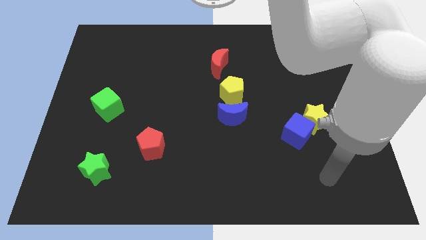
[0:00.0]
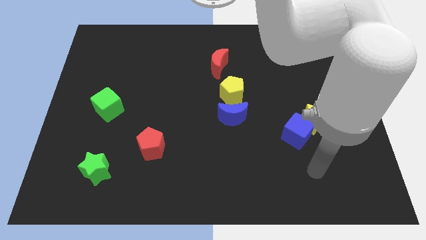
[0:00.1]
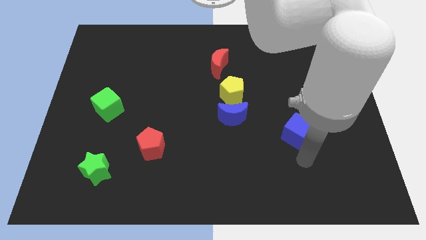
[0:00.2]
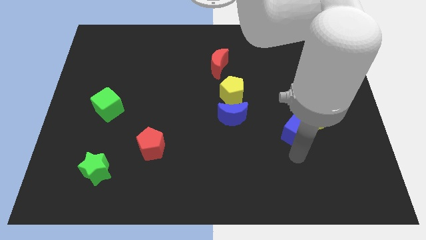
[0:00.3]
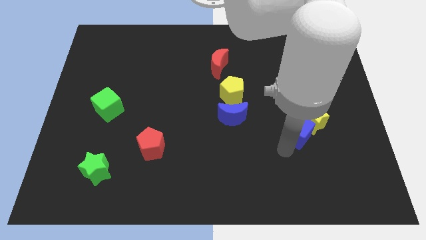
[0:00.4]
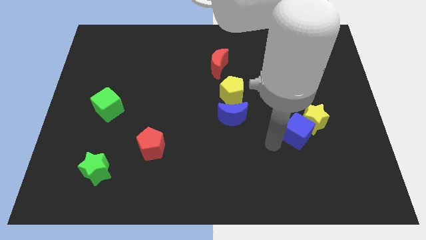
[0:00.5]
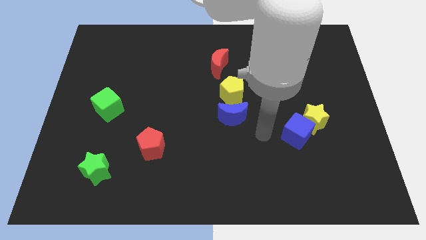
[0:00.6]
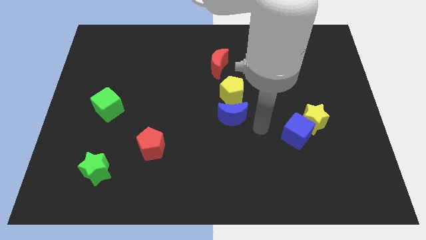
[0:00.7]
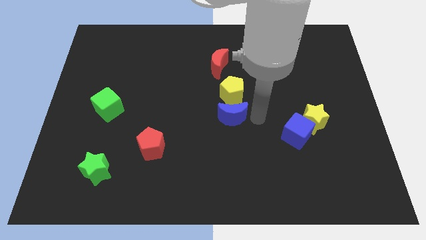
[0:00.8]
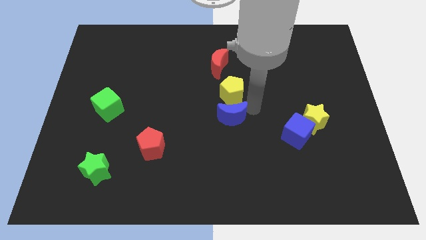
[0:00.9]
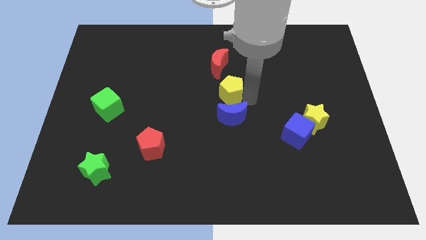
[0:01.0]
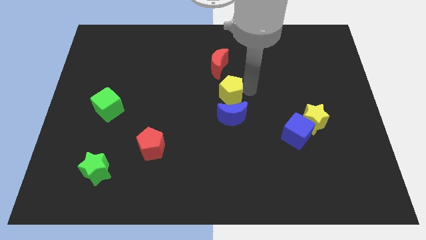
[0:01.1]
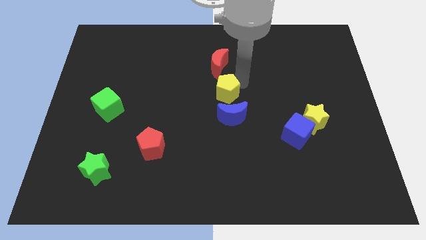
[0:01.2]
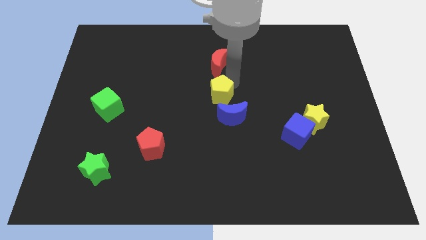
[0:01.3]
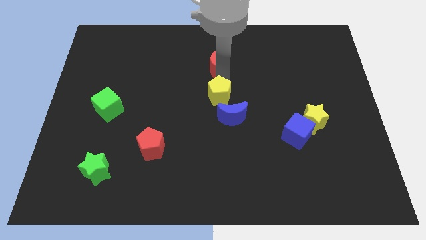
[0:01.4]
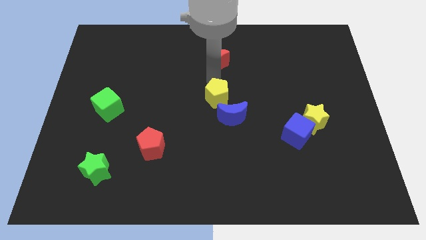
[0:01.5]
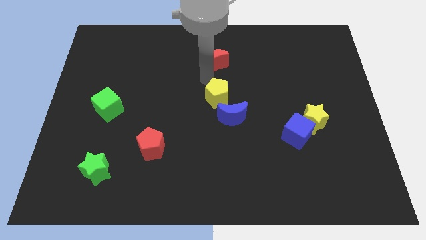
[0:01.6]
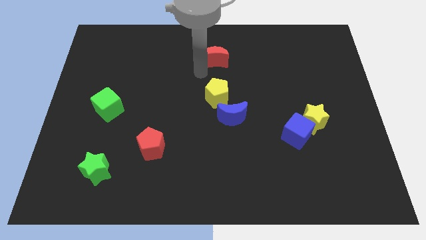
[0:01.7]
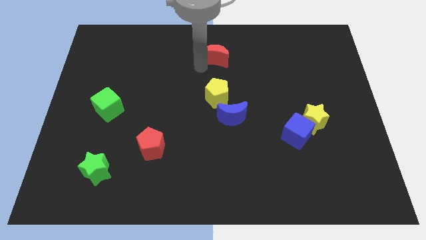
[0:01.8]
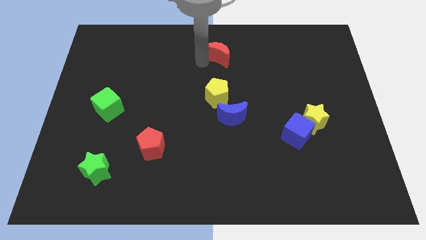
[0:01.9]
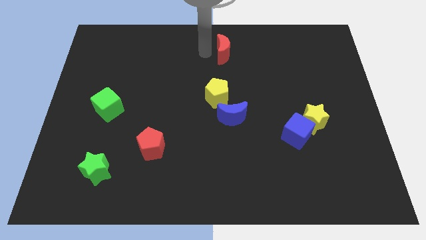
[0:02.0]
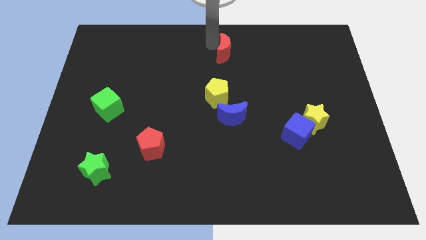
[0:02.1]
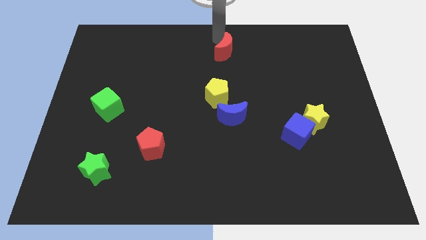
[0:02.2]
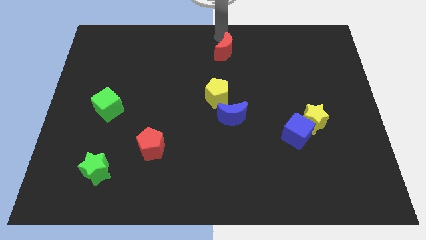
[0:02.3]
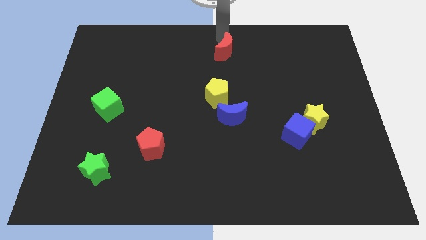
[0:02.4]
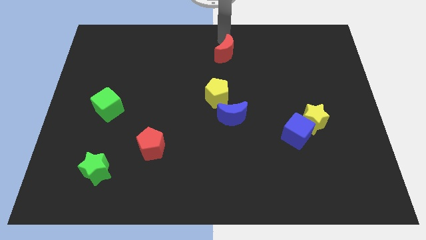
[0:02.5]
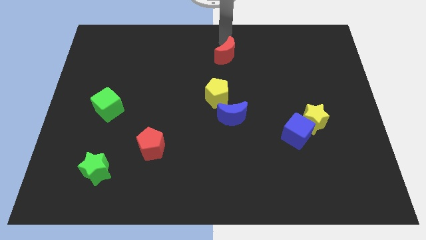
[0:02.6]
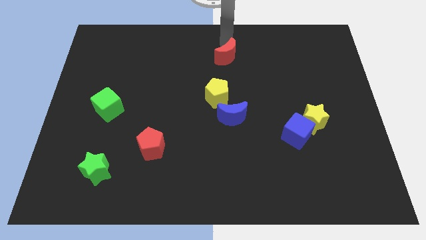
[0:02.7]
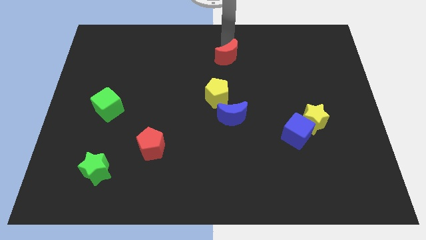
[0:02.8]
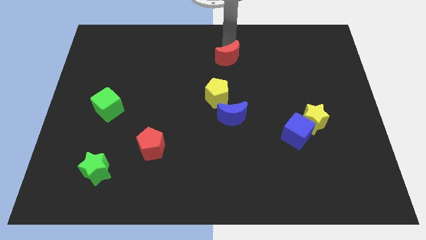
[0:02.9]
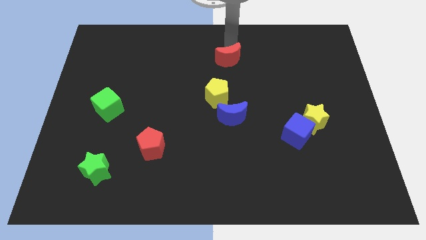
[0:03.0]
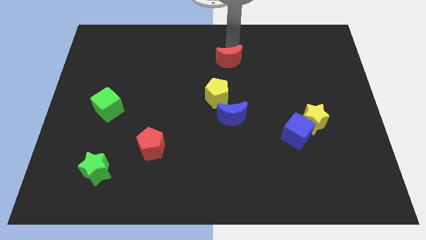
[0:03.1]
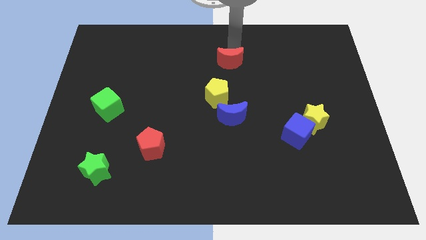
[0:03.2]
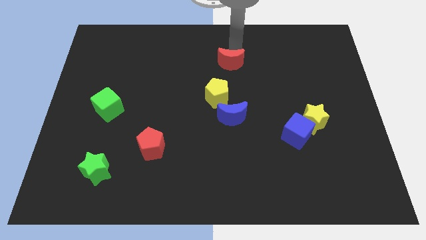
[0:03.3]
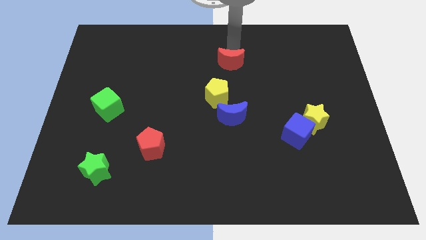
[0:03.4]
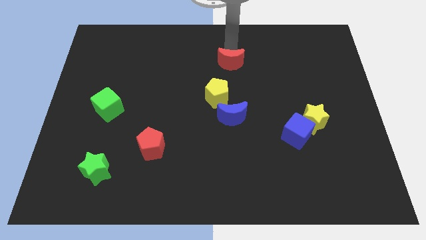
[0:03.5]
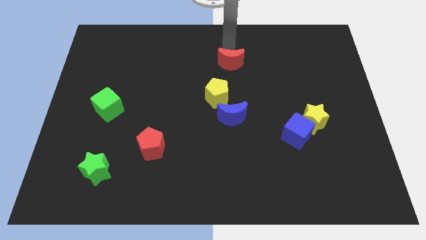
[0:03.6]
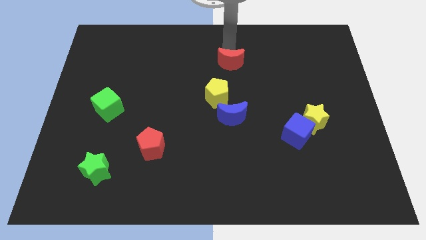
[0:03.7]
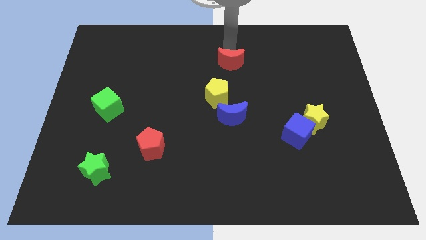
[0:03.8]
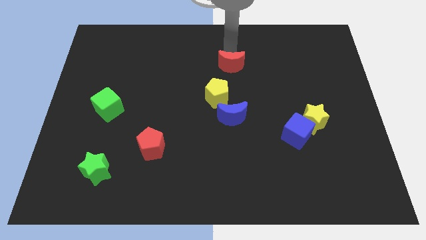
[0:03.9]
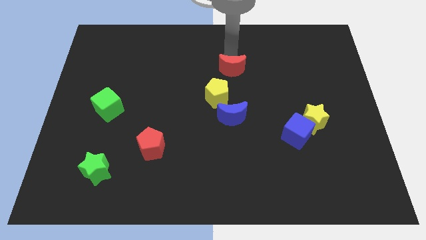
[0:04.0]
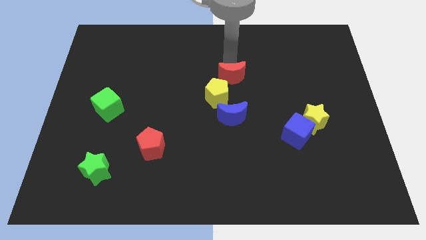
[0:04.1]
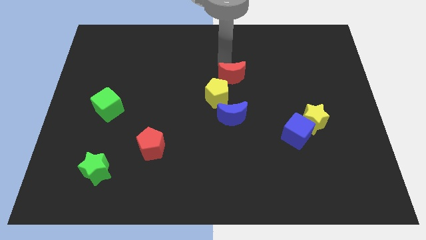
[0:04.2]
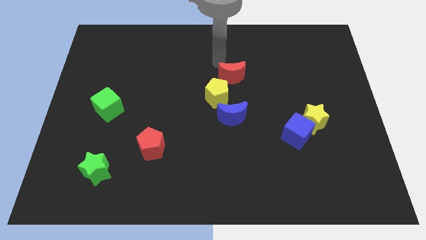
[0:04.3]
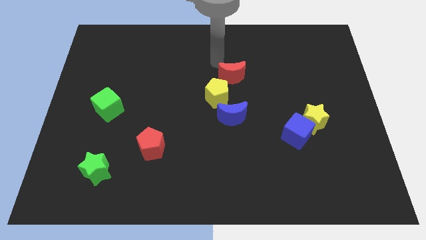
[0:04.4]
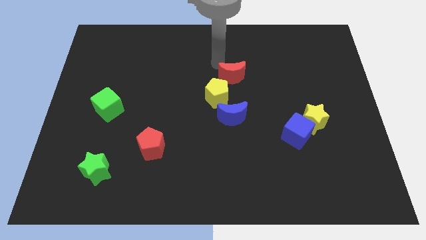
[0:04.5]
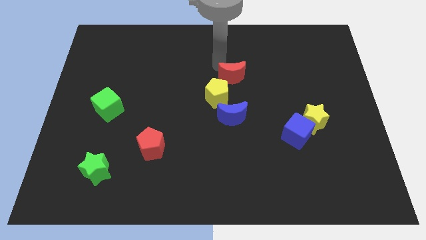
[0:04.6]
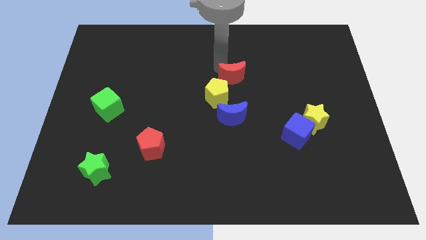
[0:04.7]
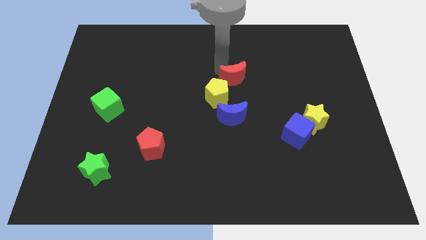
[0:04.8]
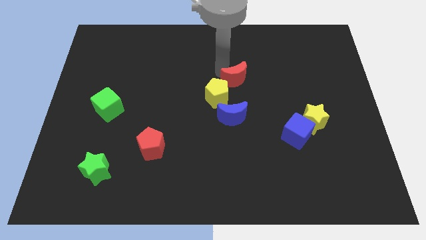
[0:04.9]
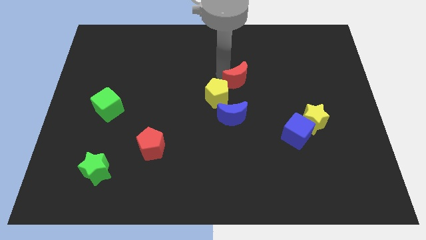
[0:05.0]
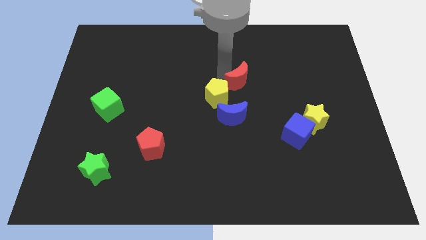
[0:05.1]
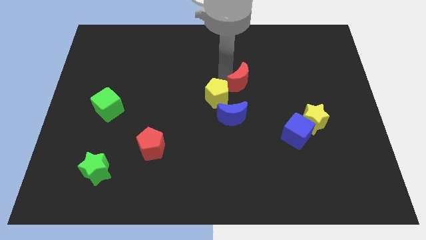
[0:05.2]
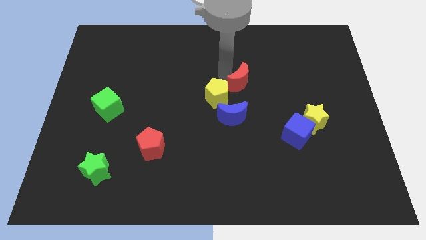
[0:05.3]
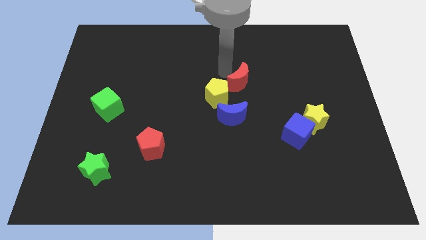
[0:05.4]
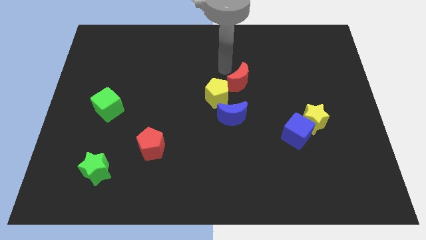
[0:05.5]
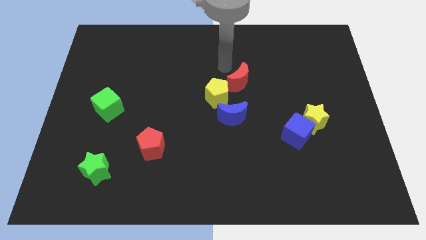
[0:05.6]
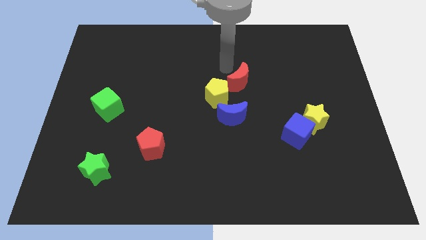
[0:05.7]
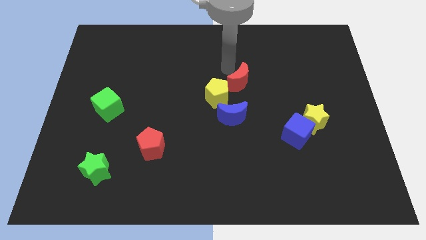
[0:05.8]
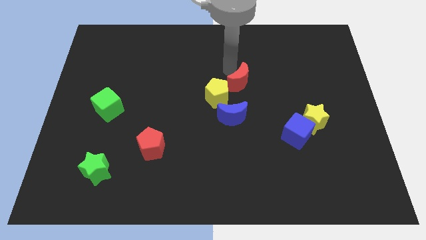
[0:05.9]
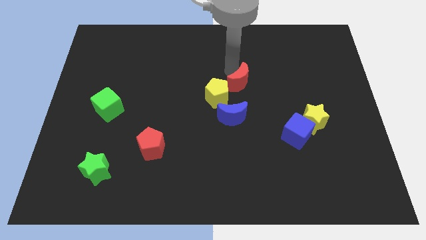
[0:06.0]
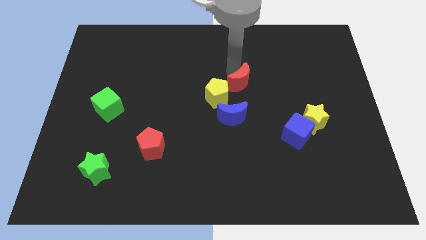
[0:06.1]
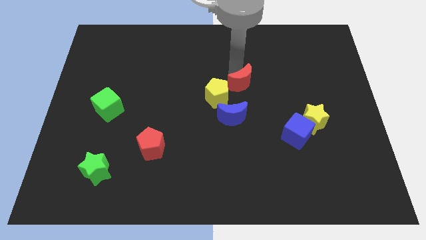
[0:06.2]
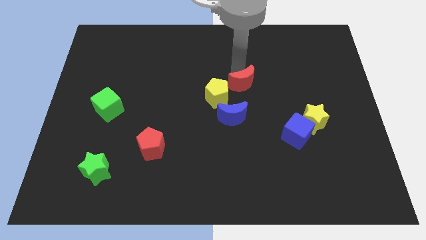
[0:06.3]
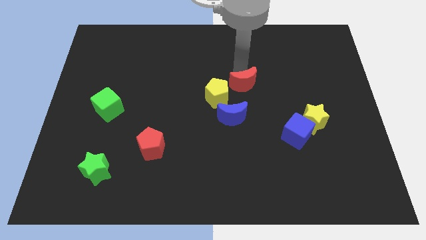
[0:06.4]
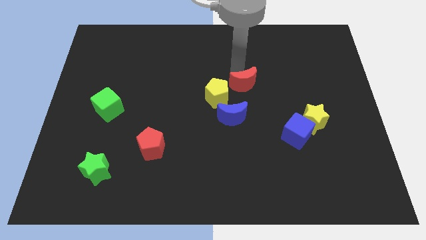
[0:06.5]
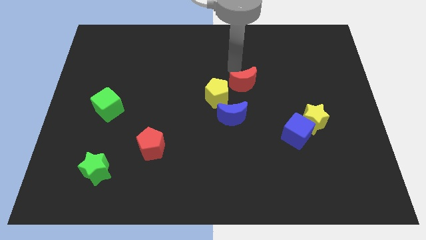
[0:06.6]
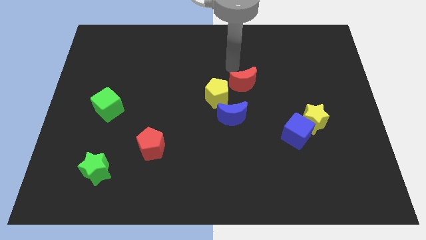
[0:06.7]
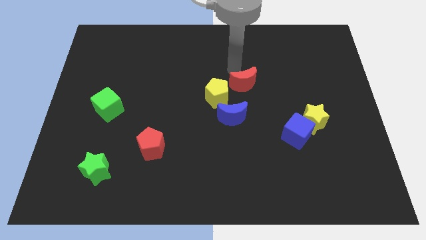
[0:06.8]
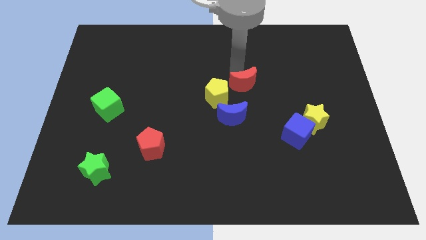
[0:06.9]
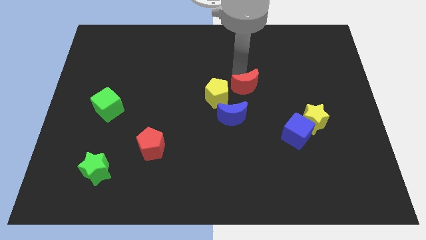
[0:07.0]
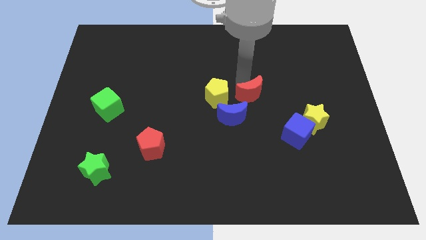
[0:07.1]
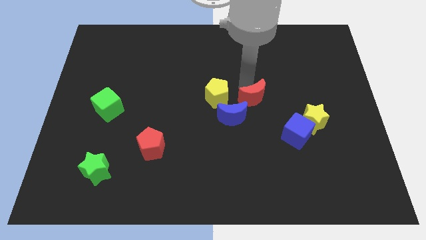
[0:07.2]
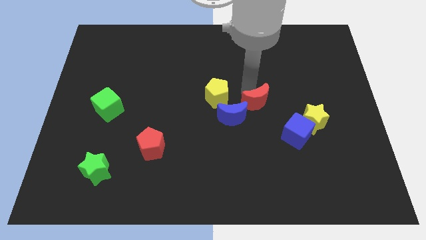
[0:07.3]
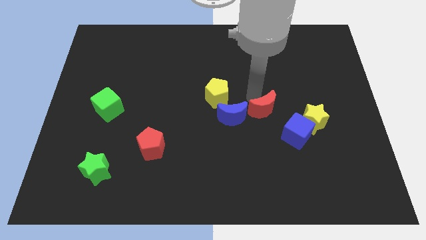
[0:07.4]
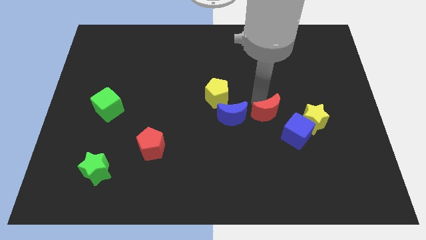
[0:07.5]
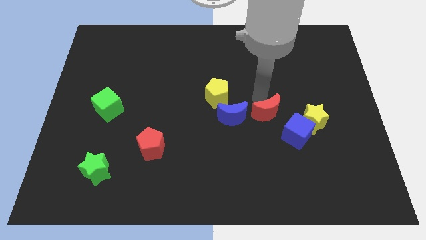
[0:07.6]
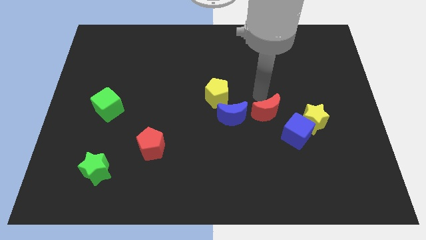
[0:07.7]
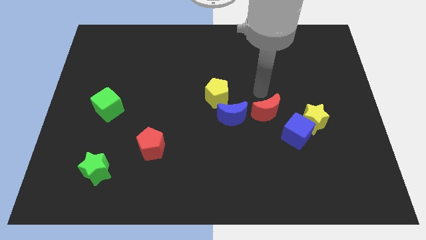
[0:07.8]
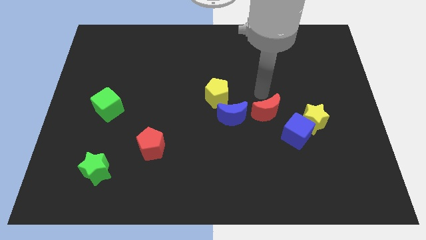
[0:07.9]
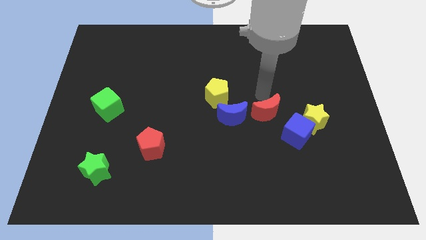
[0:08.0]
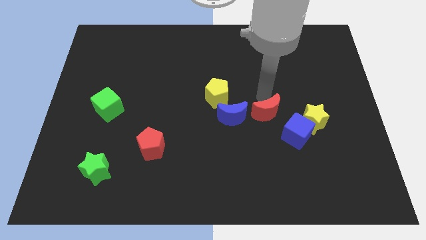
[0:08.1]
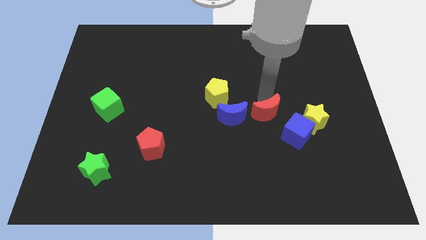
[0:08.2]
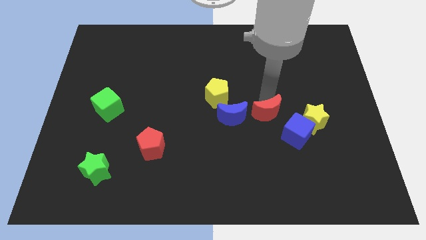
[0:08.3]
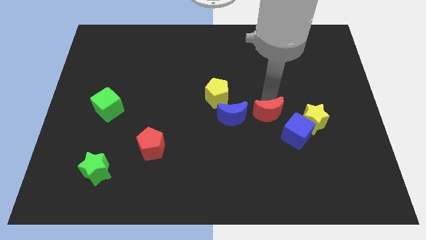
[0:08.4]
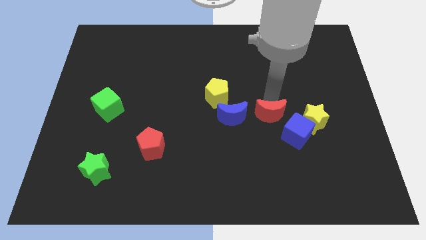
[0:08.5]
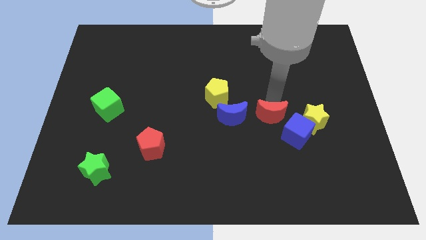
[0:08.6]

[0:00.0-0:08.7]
move the red moon downwards and right diagonally
